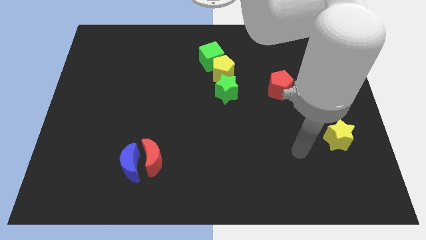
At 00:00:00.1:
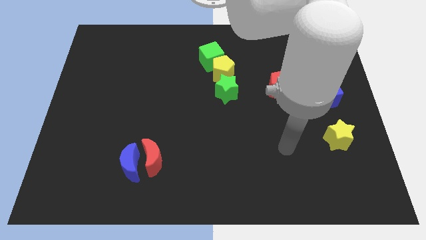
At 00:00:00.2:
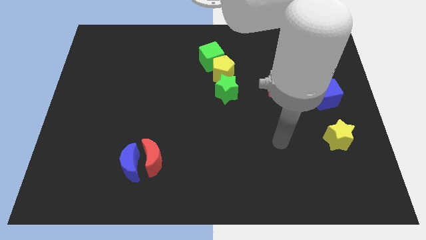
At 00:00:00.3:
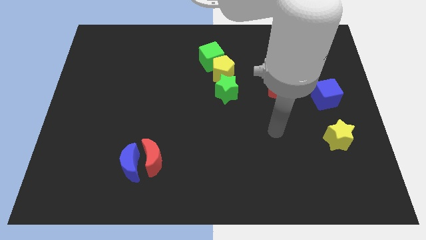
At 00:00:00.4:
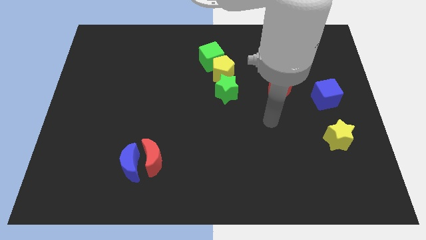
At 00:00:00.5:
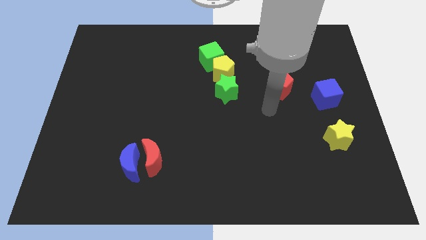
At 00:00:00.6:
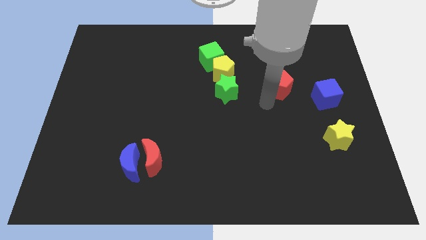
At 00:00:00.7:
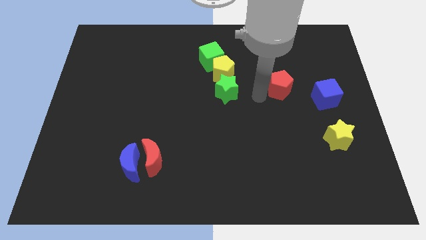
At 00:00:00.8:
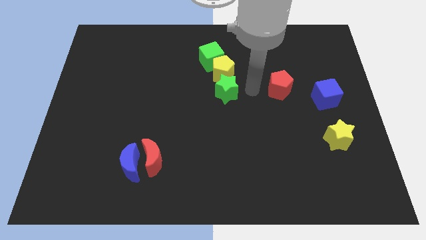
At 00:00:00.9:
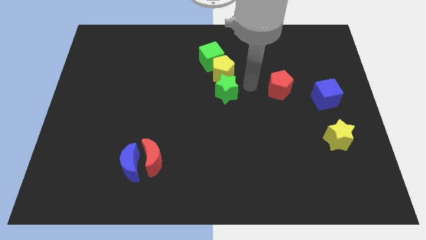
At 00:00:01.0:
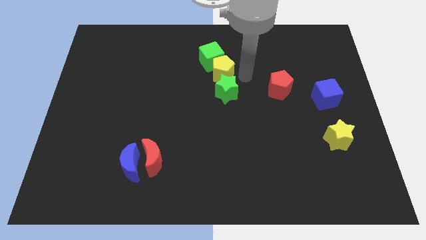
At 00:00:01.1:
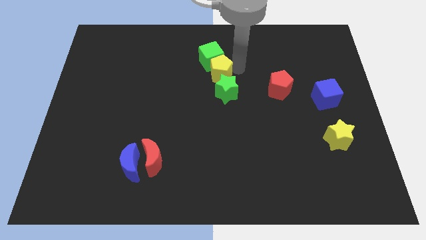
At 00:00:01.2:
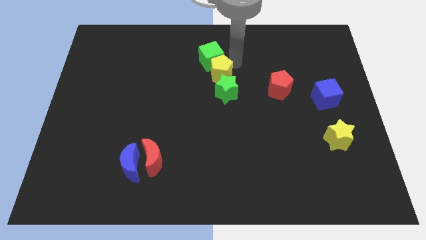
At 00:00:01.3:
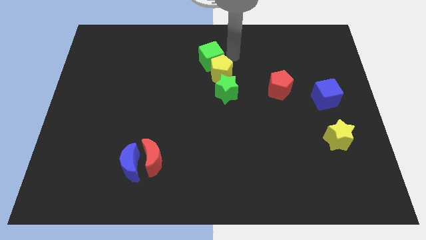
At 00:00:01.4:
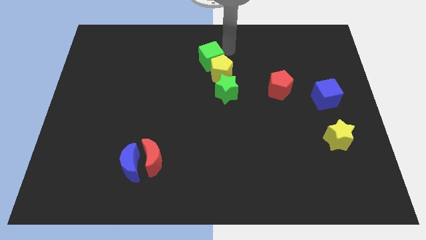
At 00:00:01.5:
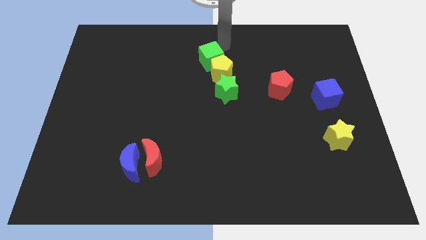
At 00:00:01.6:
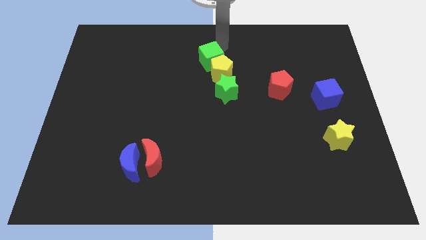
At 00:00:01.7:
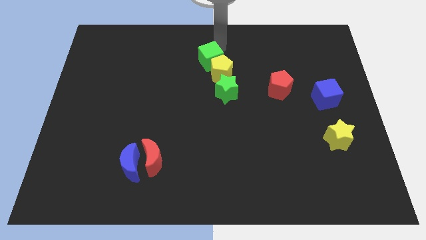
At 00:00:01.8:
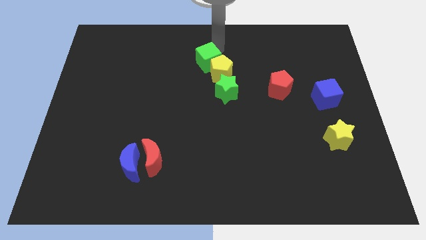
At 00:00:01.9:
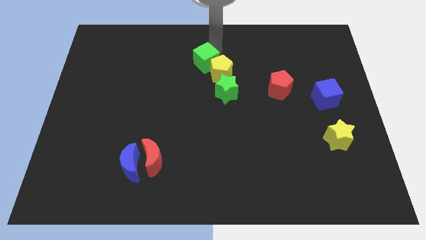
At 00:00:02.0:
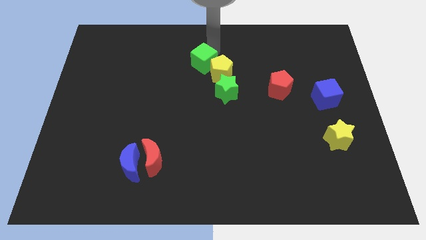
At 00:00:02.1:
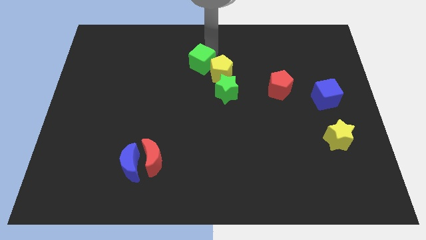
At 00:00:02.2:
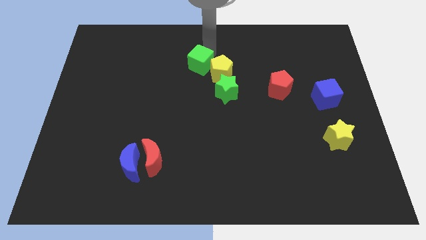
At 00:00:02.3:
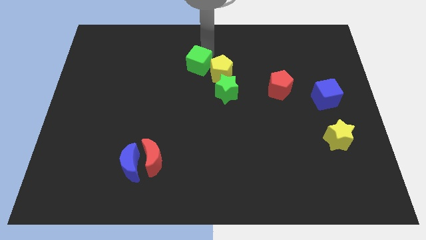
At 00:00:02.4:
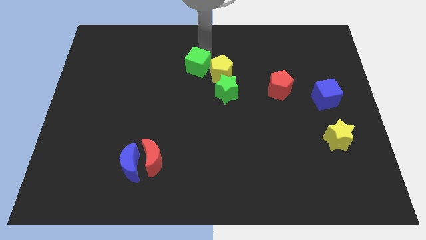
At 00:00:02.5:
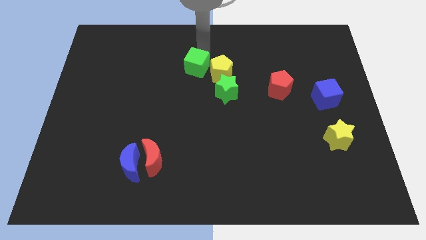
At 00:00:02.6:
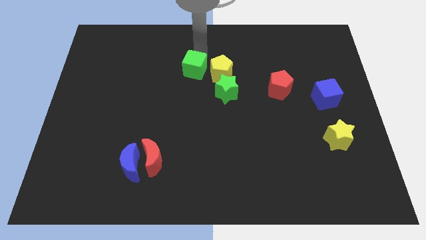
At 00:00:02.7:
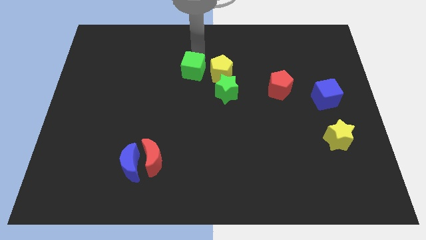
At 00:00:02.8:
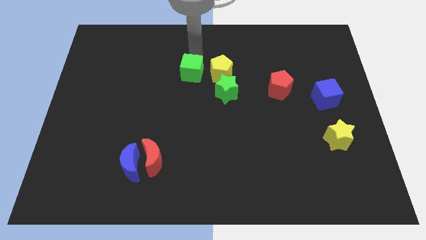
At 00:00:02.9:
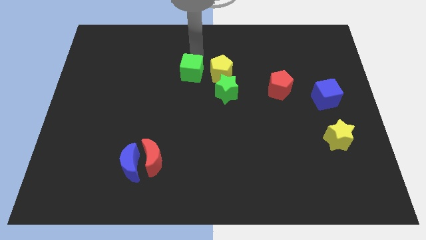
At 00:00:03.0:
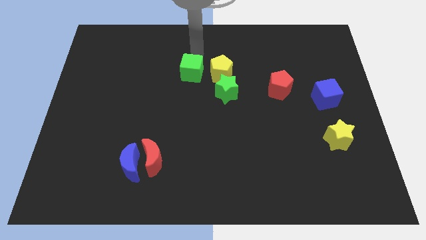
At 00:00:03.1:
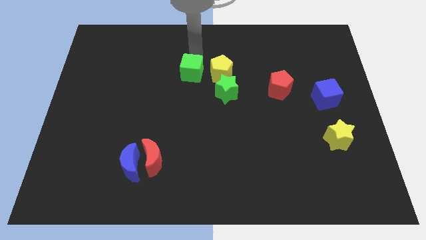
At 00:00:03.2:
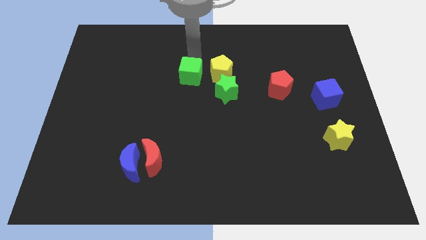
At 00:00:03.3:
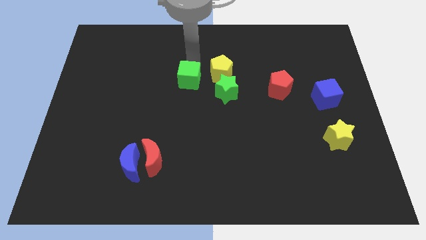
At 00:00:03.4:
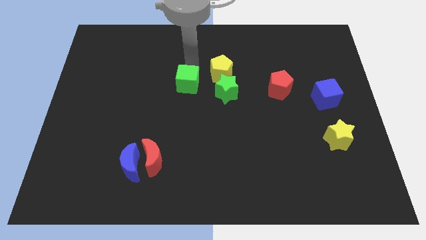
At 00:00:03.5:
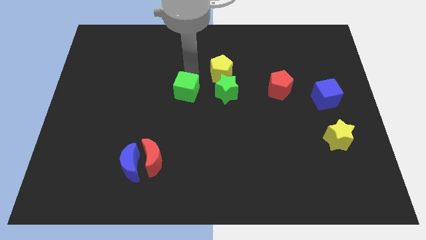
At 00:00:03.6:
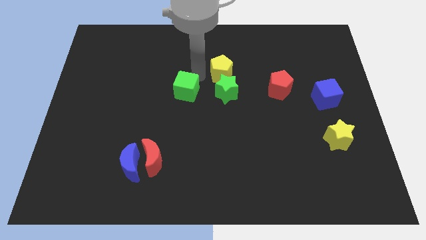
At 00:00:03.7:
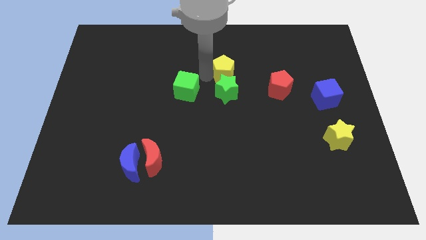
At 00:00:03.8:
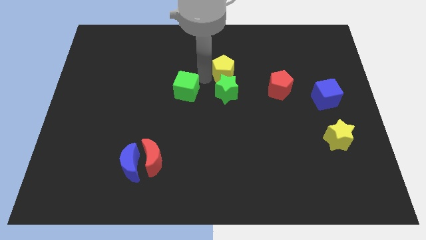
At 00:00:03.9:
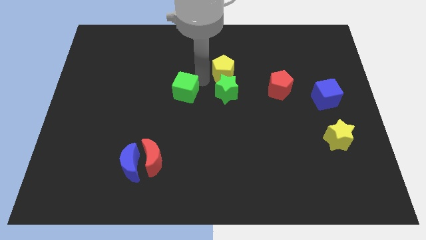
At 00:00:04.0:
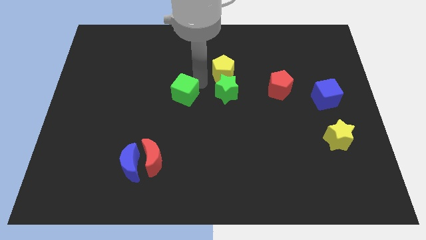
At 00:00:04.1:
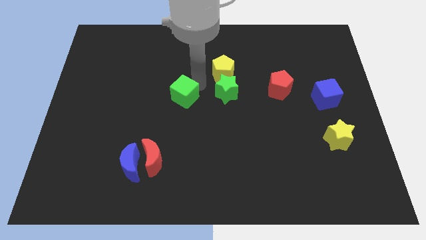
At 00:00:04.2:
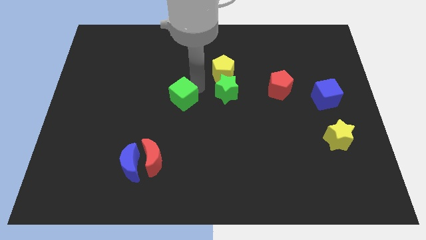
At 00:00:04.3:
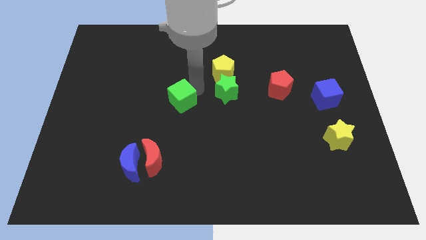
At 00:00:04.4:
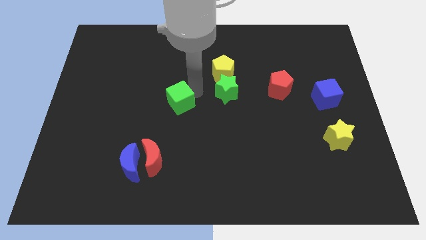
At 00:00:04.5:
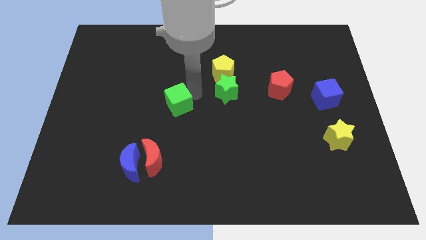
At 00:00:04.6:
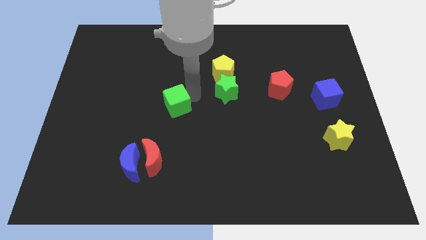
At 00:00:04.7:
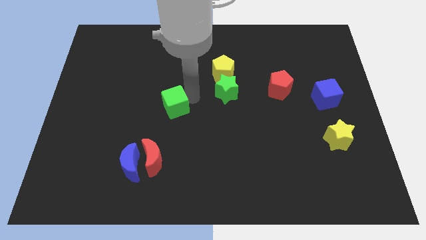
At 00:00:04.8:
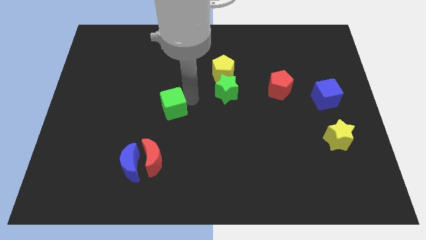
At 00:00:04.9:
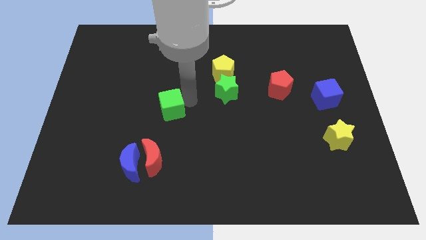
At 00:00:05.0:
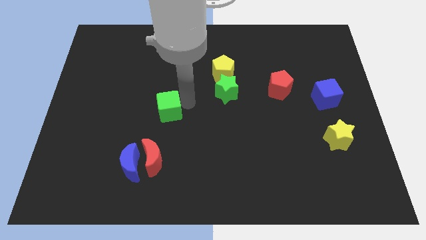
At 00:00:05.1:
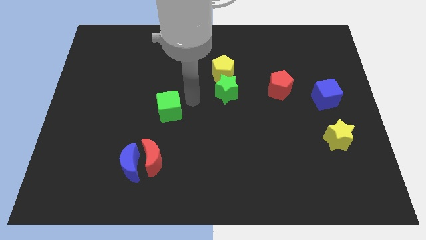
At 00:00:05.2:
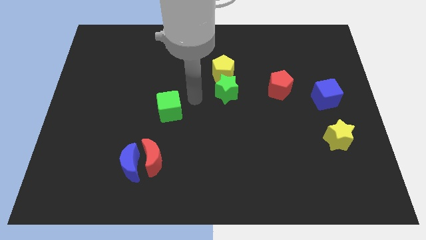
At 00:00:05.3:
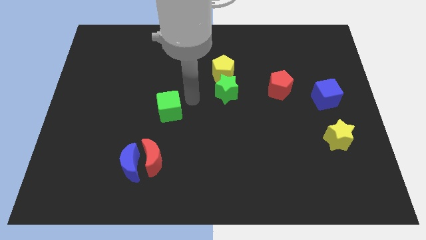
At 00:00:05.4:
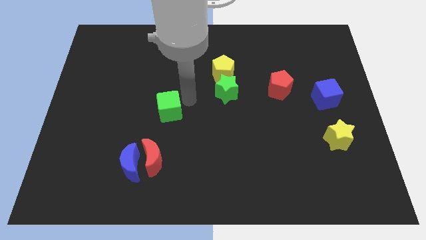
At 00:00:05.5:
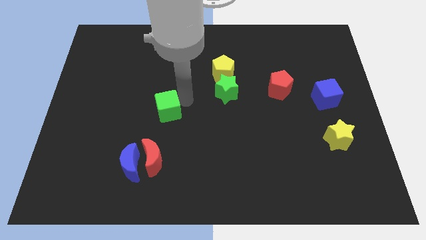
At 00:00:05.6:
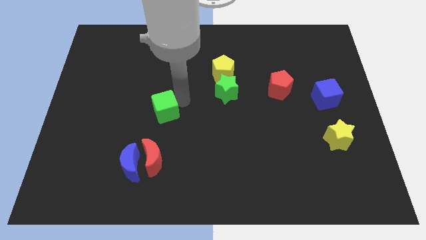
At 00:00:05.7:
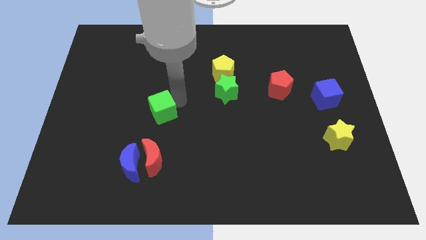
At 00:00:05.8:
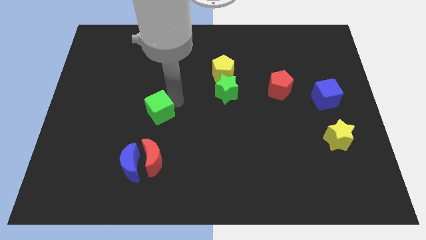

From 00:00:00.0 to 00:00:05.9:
move the green cube downwards and then left

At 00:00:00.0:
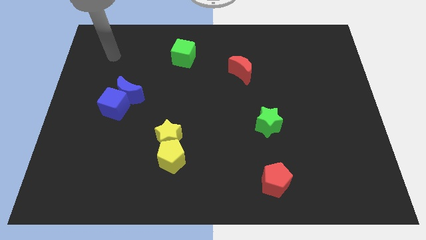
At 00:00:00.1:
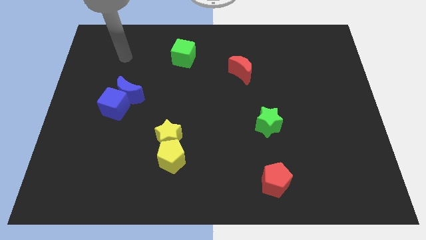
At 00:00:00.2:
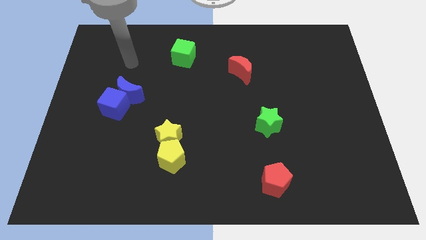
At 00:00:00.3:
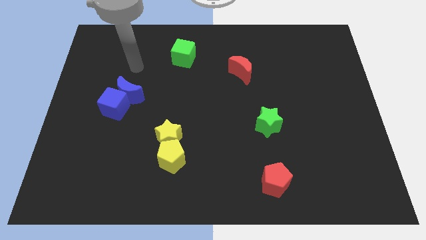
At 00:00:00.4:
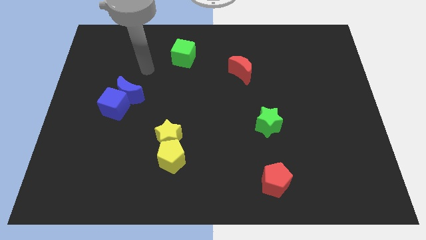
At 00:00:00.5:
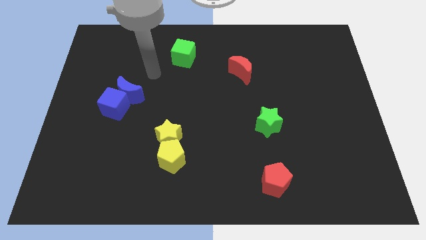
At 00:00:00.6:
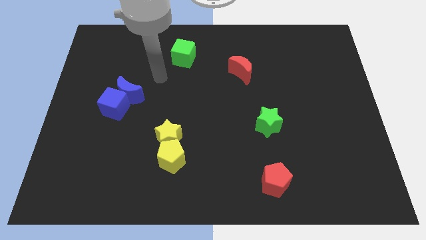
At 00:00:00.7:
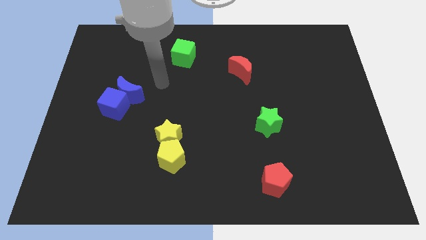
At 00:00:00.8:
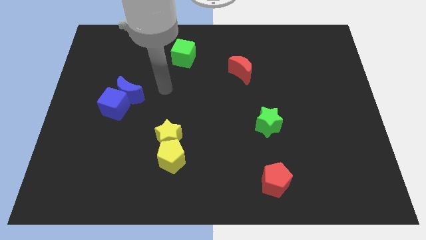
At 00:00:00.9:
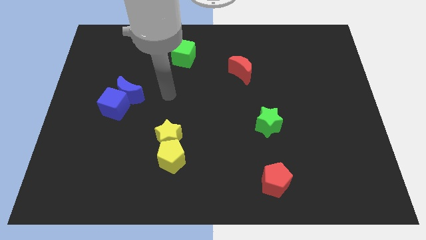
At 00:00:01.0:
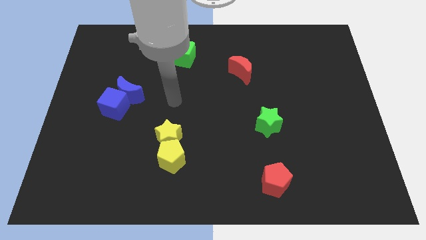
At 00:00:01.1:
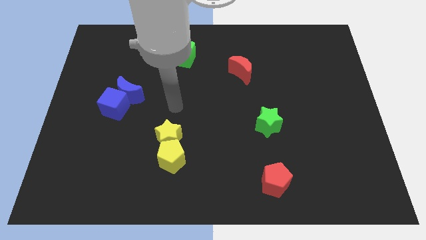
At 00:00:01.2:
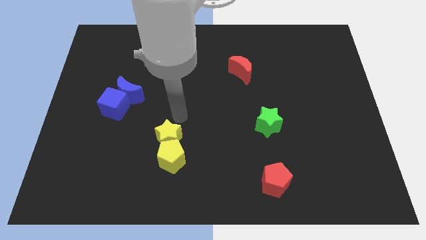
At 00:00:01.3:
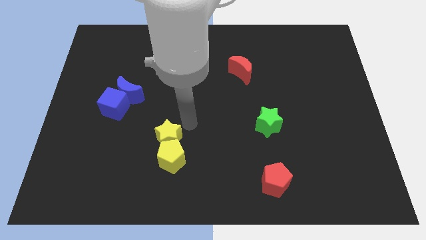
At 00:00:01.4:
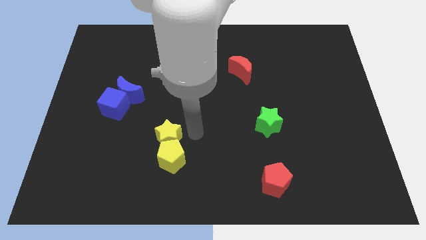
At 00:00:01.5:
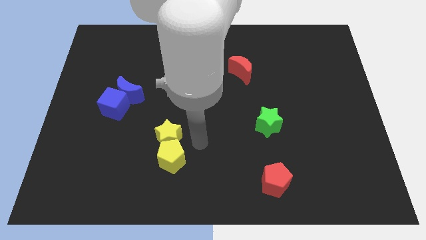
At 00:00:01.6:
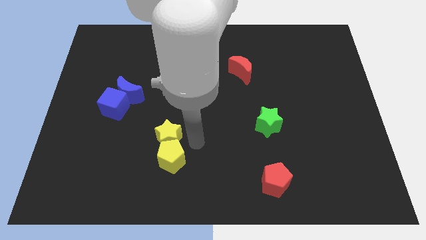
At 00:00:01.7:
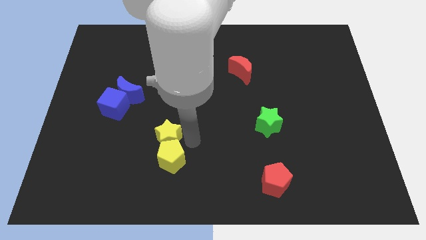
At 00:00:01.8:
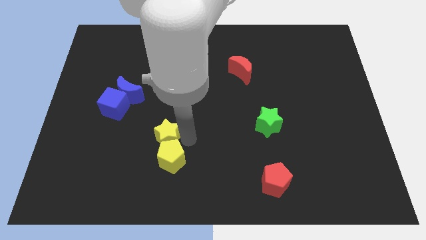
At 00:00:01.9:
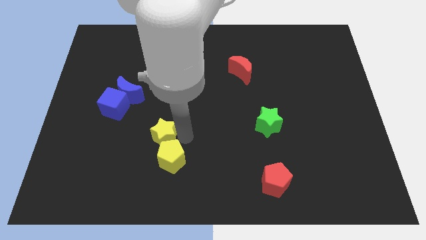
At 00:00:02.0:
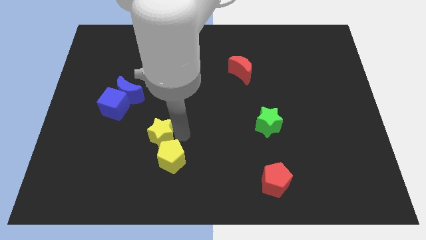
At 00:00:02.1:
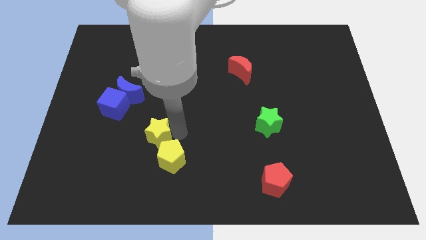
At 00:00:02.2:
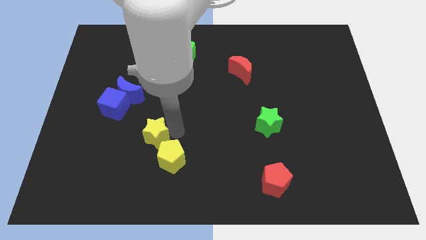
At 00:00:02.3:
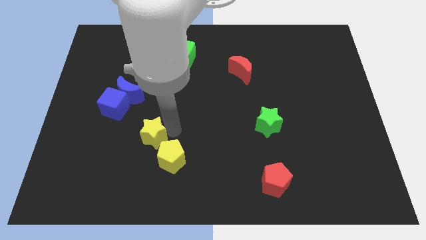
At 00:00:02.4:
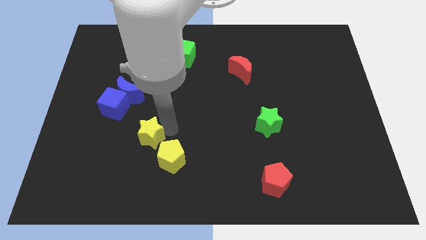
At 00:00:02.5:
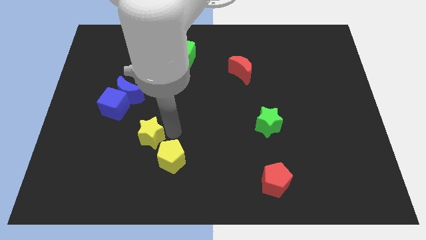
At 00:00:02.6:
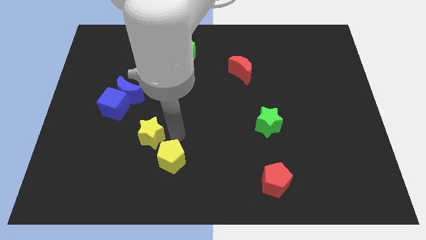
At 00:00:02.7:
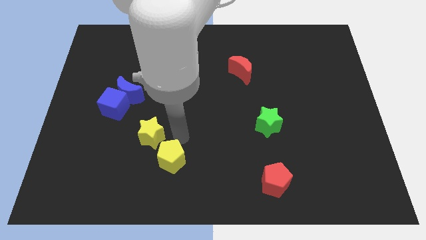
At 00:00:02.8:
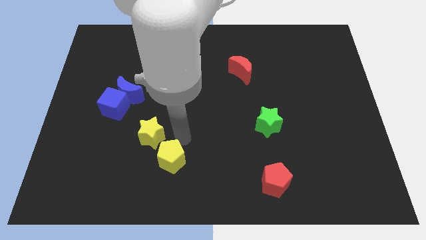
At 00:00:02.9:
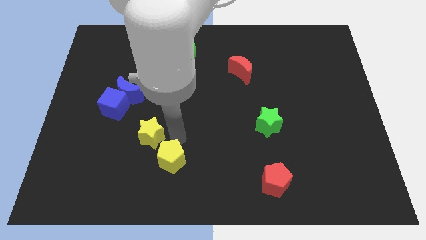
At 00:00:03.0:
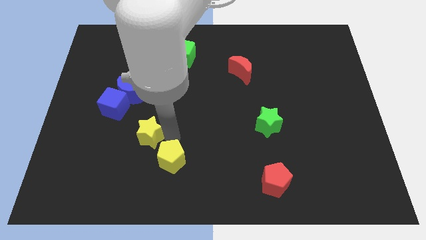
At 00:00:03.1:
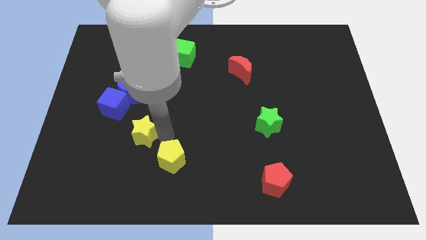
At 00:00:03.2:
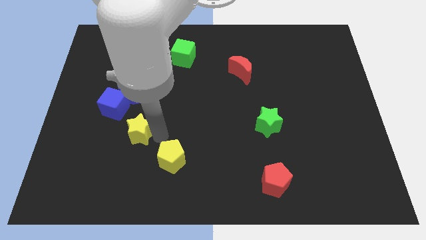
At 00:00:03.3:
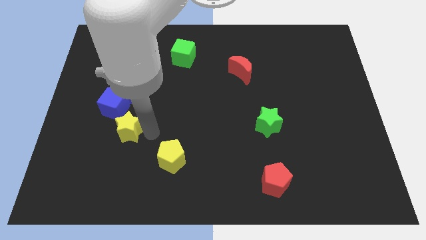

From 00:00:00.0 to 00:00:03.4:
slightly push the yellow star to the left
